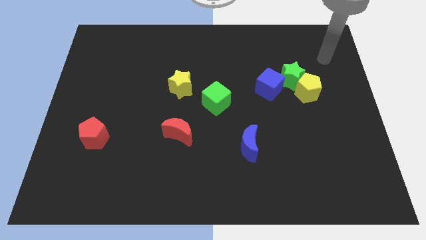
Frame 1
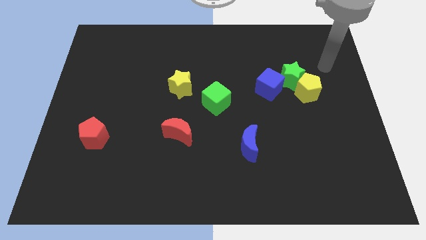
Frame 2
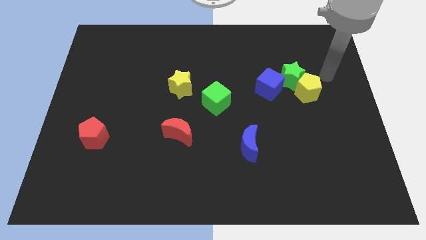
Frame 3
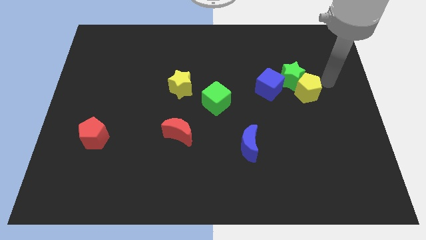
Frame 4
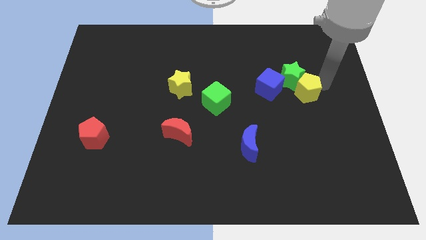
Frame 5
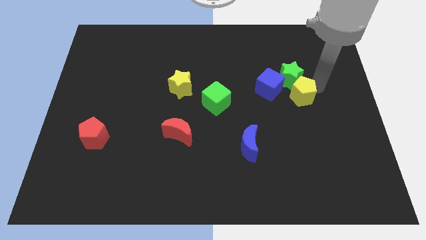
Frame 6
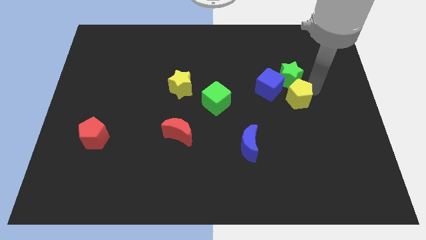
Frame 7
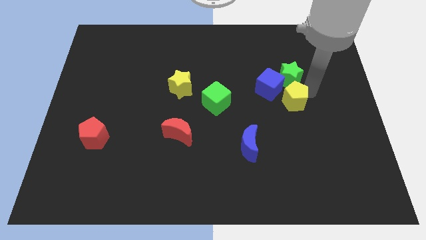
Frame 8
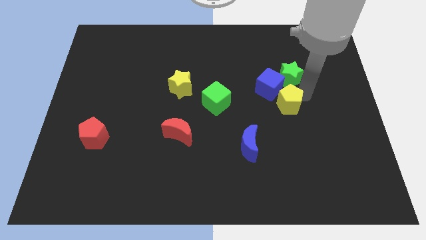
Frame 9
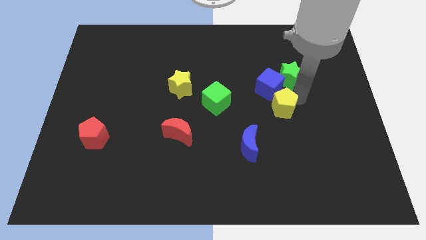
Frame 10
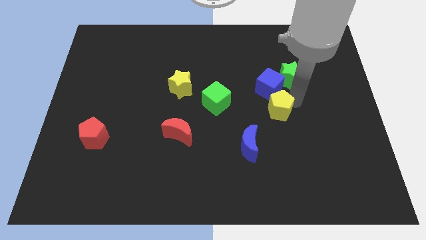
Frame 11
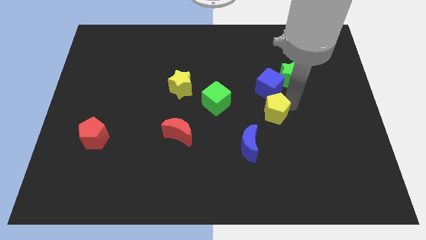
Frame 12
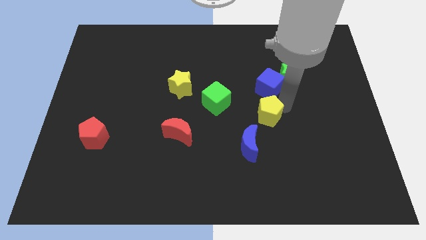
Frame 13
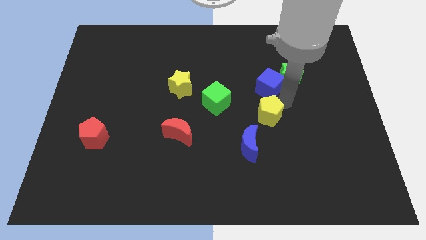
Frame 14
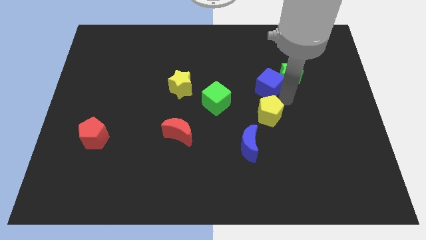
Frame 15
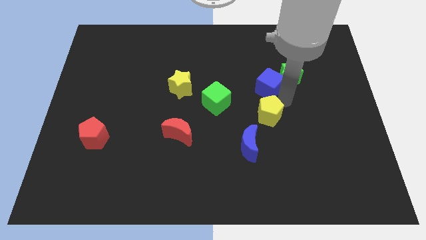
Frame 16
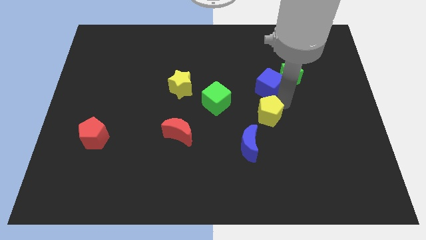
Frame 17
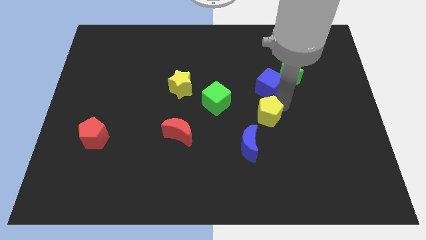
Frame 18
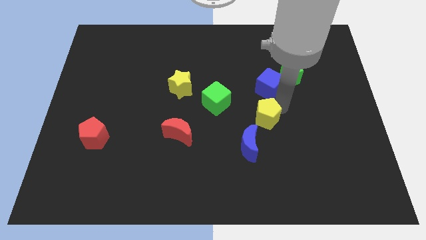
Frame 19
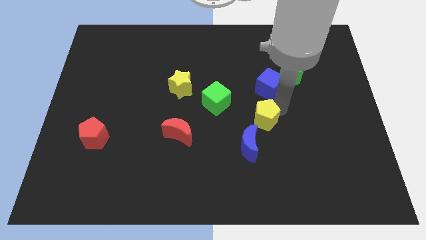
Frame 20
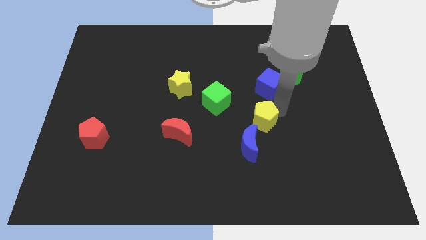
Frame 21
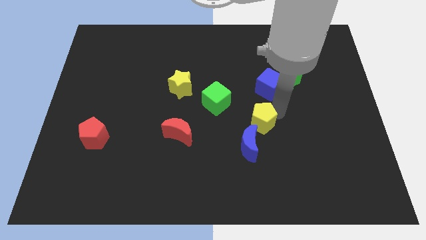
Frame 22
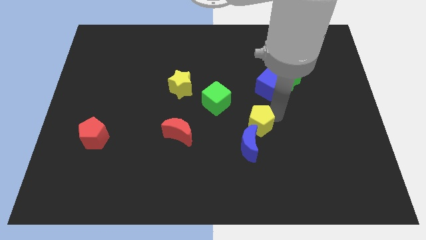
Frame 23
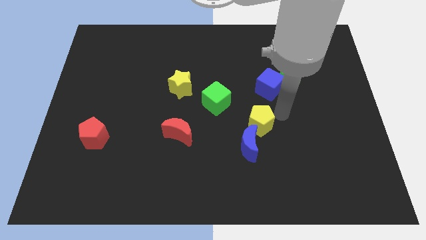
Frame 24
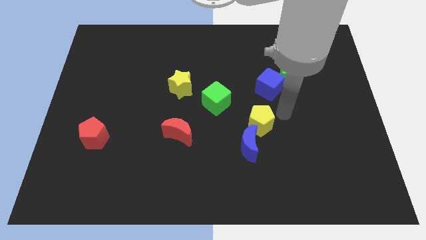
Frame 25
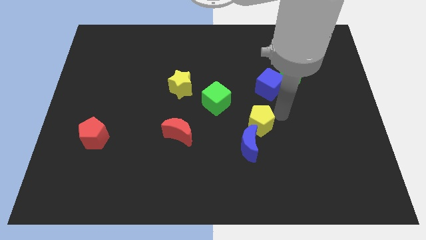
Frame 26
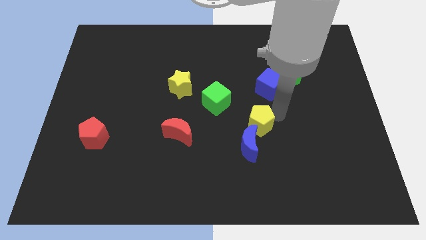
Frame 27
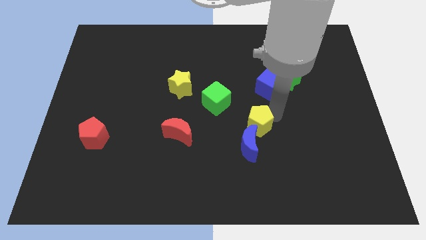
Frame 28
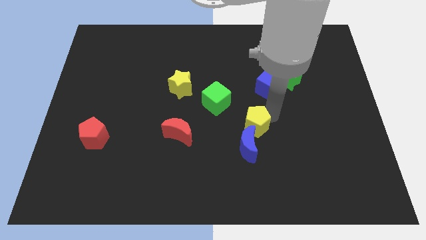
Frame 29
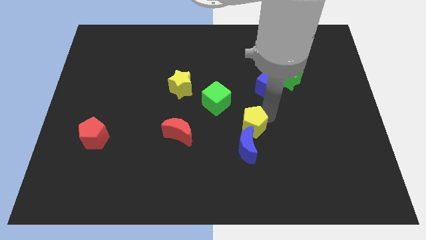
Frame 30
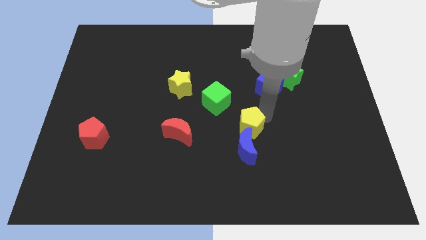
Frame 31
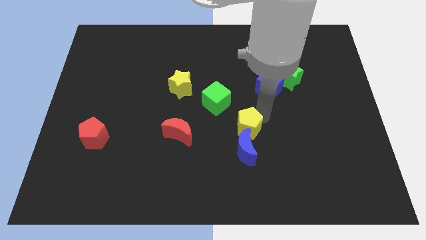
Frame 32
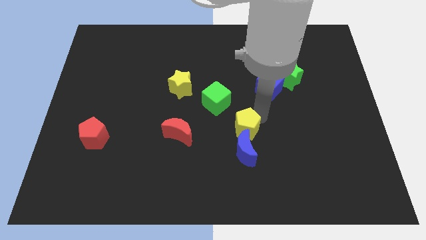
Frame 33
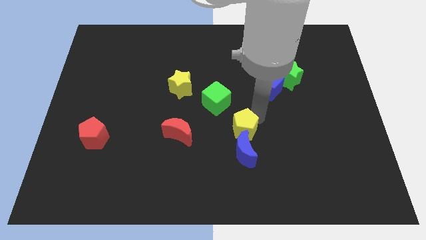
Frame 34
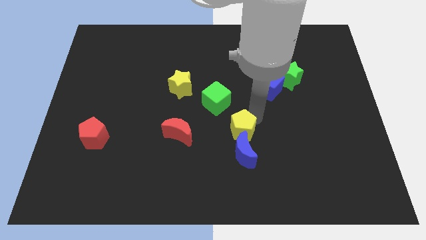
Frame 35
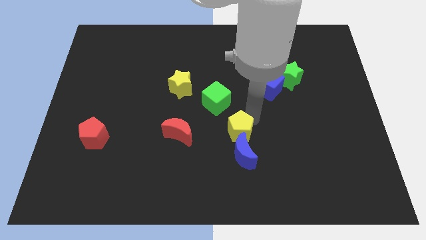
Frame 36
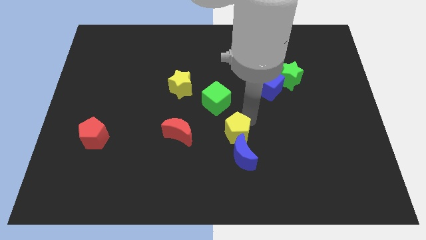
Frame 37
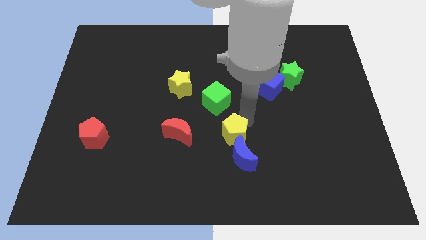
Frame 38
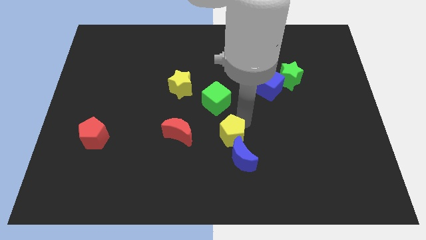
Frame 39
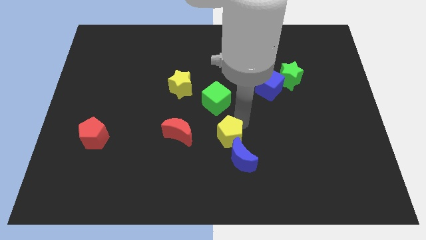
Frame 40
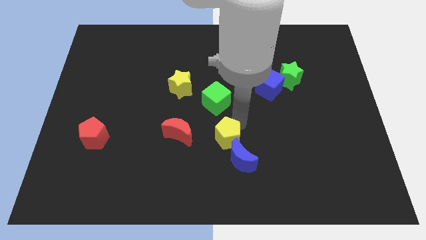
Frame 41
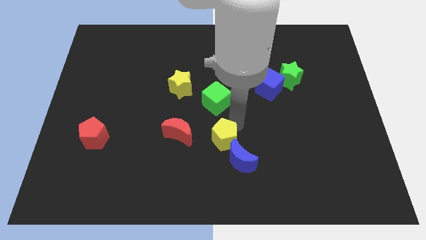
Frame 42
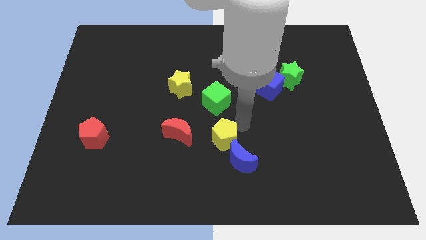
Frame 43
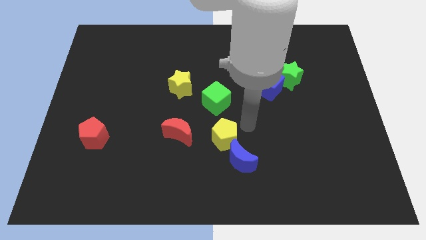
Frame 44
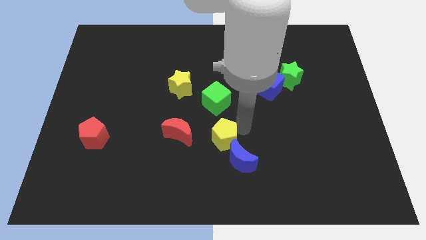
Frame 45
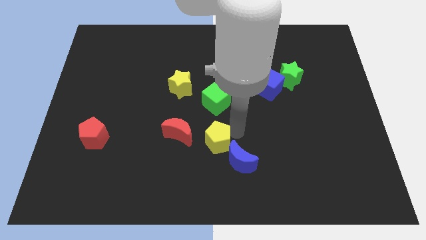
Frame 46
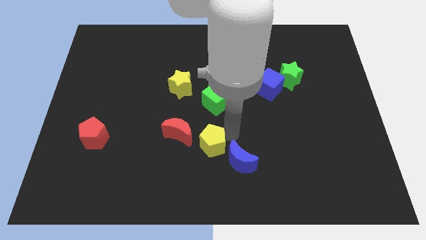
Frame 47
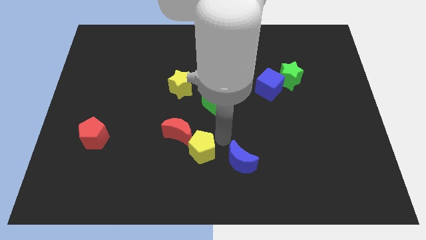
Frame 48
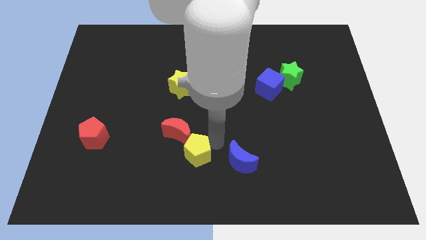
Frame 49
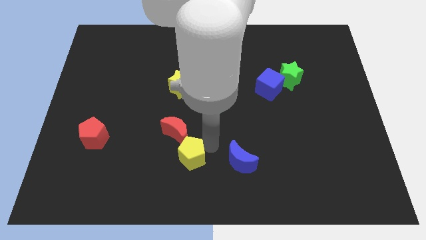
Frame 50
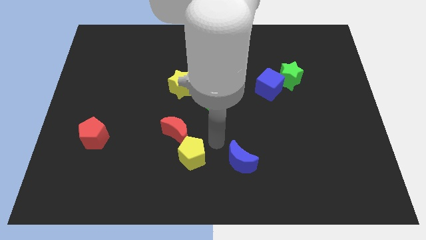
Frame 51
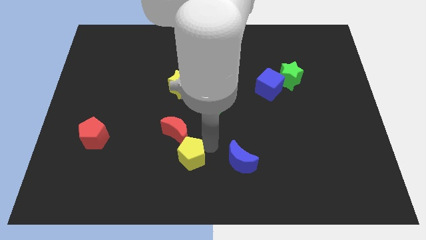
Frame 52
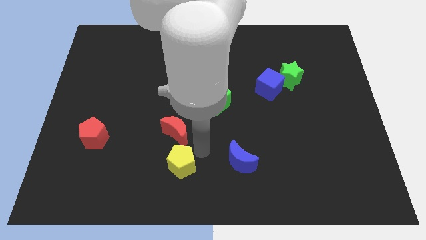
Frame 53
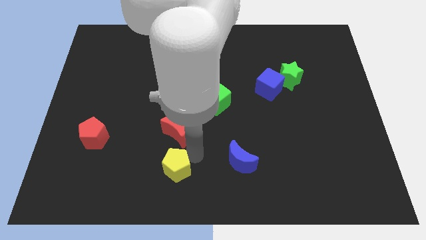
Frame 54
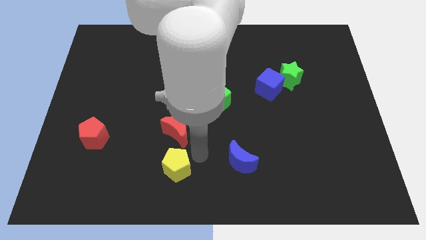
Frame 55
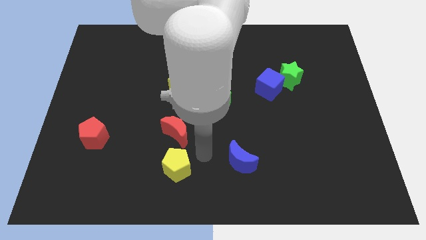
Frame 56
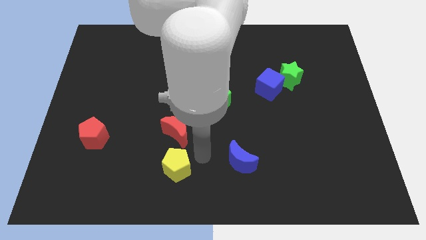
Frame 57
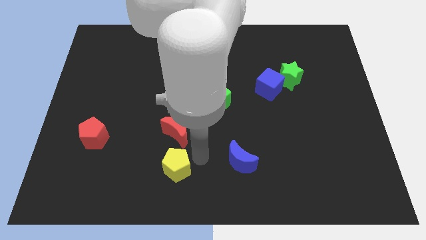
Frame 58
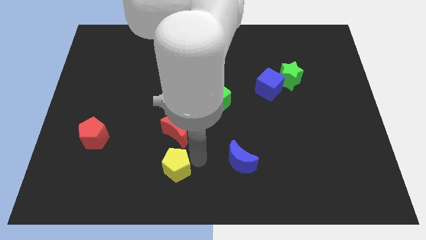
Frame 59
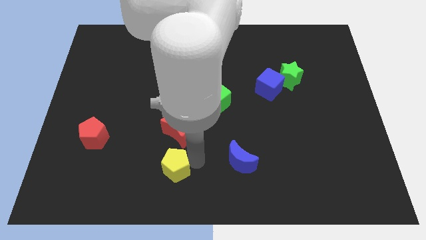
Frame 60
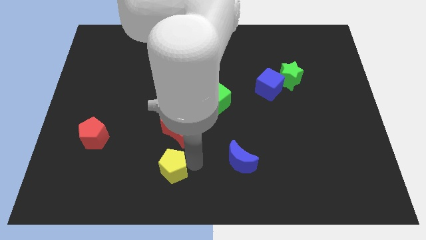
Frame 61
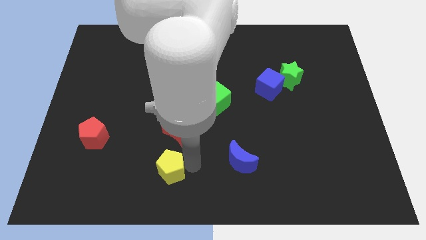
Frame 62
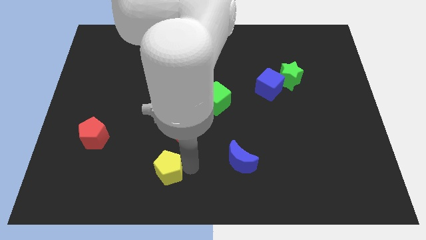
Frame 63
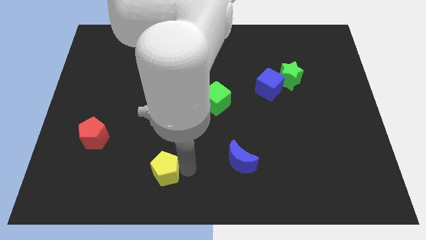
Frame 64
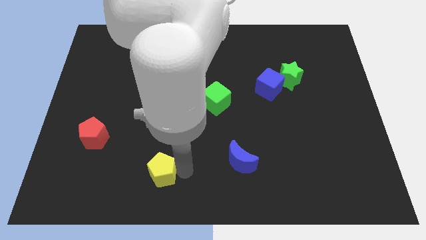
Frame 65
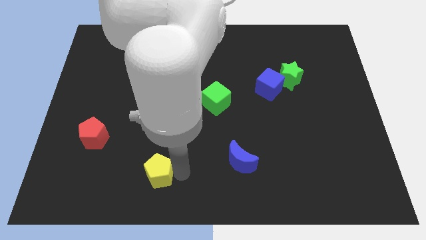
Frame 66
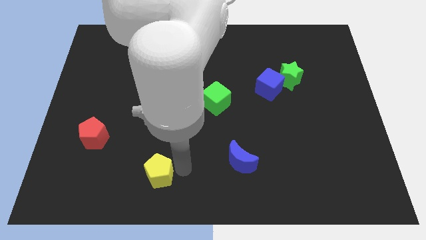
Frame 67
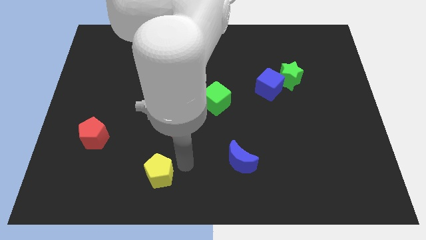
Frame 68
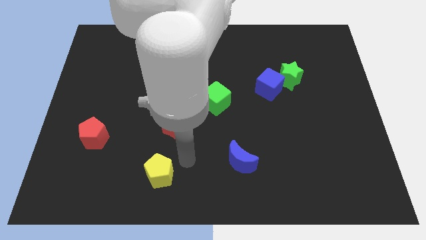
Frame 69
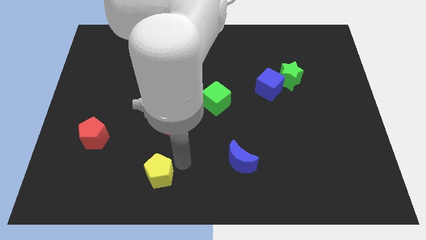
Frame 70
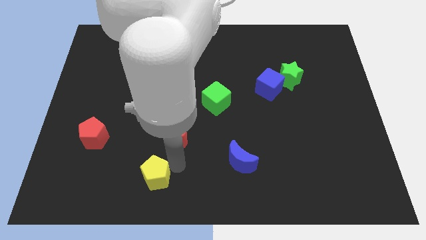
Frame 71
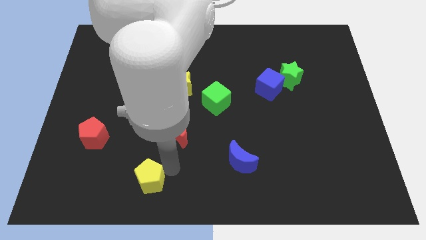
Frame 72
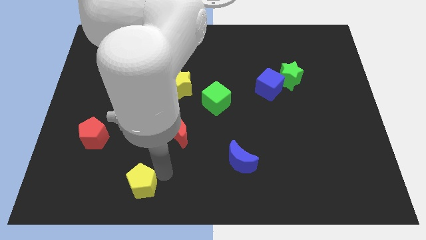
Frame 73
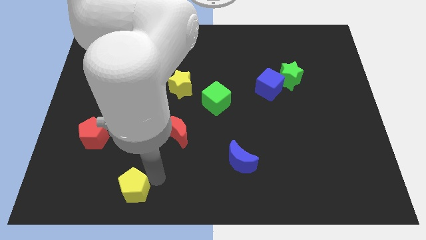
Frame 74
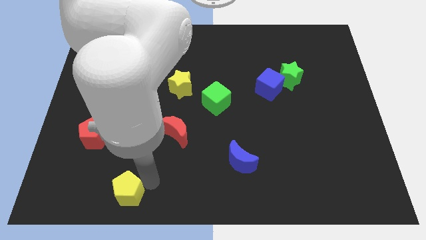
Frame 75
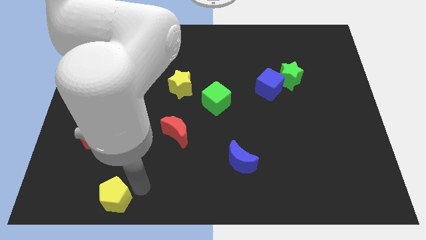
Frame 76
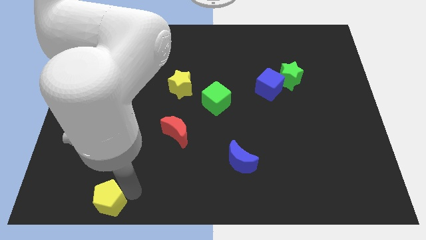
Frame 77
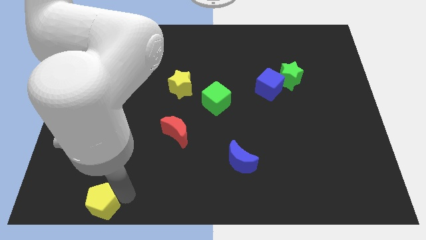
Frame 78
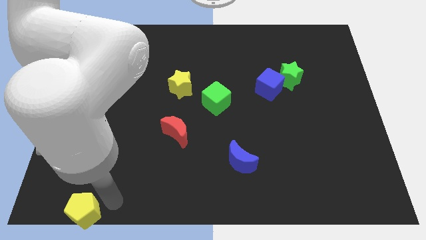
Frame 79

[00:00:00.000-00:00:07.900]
slide the yellow pentagon to the bottom left of the board
